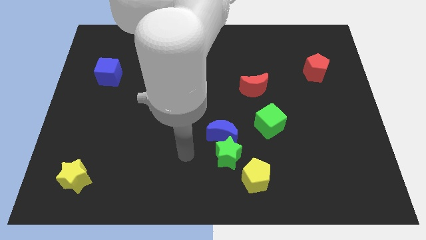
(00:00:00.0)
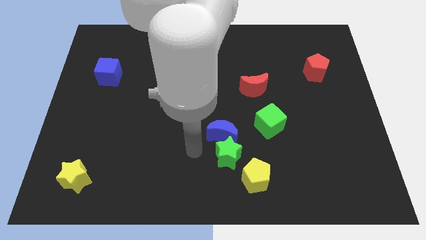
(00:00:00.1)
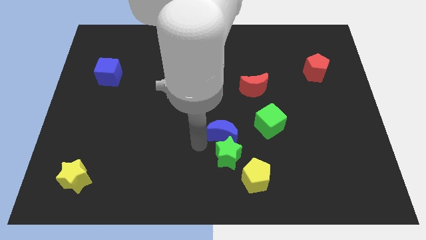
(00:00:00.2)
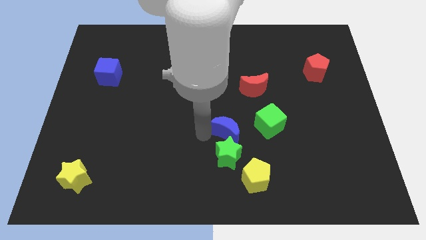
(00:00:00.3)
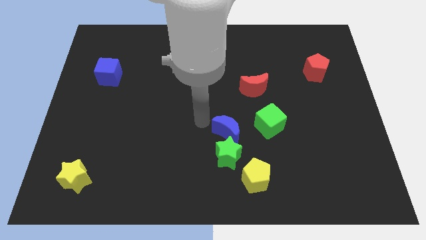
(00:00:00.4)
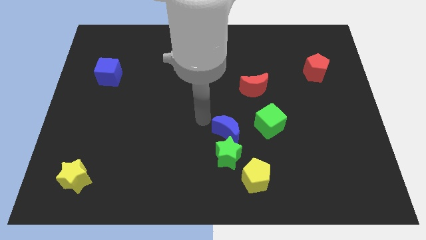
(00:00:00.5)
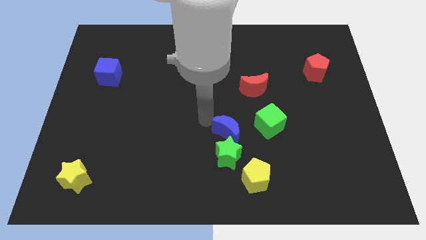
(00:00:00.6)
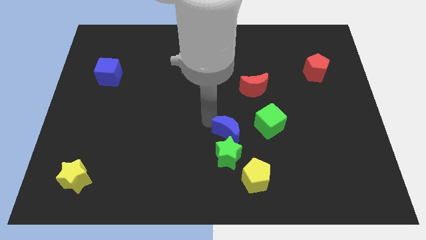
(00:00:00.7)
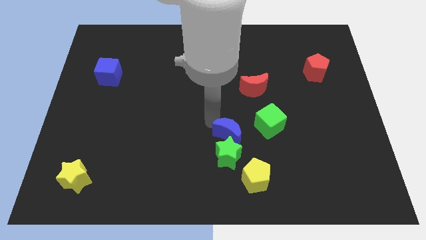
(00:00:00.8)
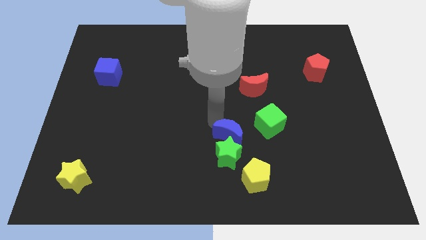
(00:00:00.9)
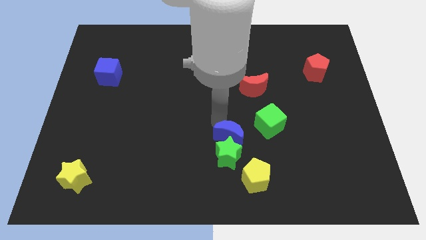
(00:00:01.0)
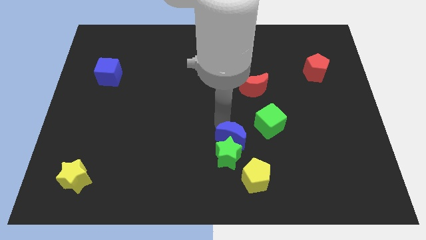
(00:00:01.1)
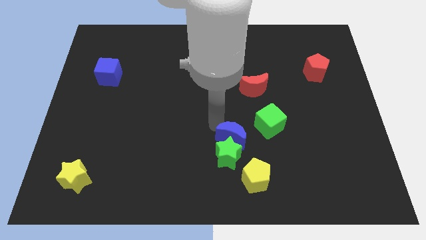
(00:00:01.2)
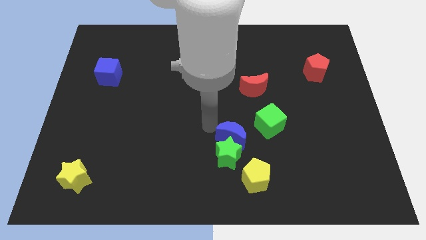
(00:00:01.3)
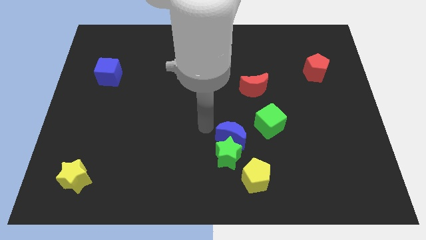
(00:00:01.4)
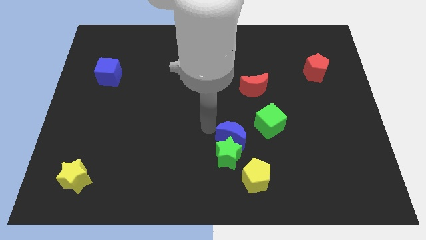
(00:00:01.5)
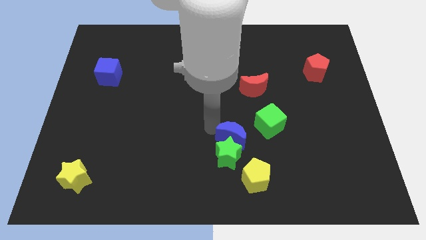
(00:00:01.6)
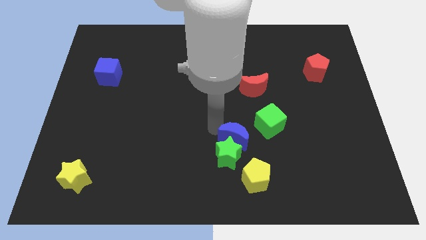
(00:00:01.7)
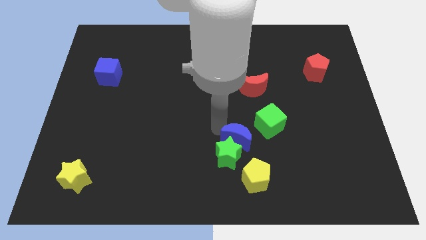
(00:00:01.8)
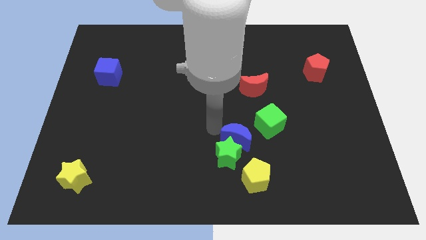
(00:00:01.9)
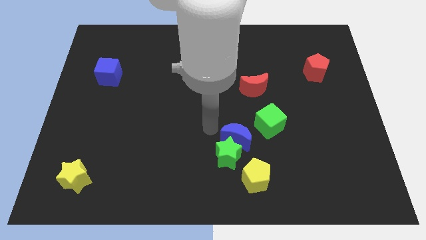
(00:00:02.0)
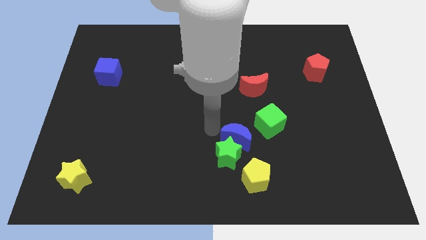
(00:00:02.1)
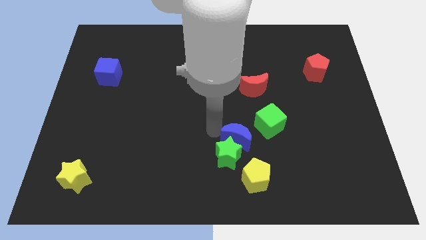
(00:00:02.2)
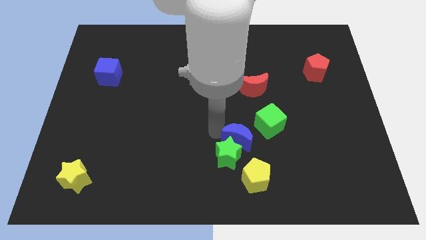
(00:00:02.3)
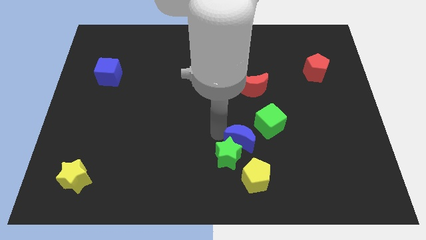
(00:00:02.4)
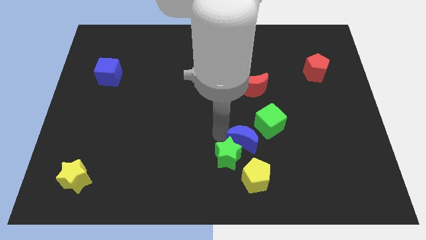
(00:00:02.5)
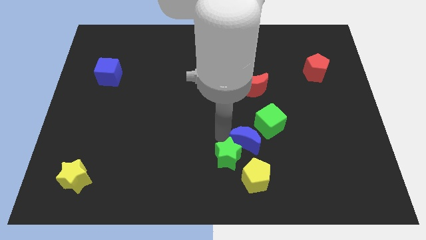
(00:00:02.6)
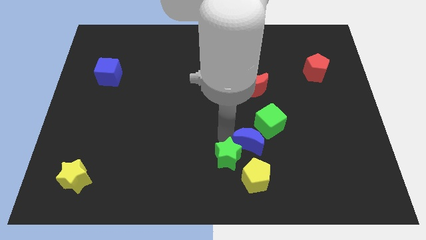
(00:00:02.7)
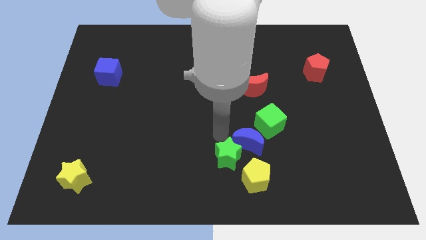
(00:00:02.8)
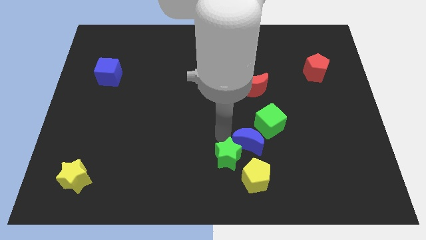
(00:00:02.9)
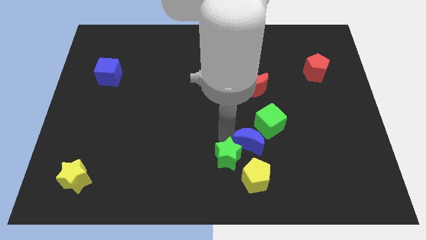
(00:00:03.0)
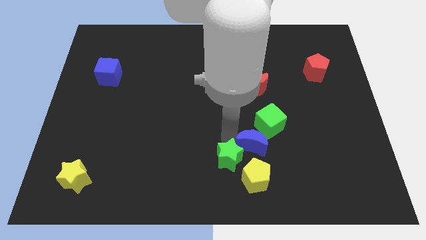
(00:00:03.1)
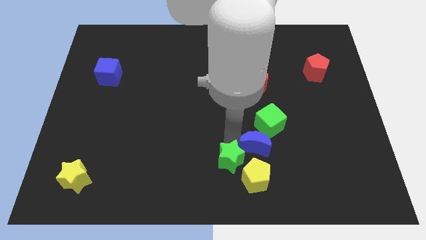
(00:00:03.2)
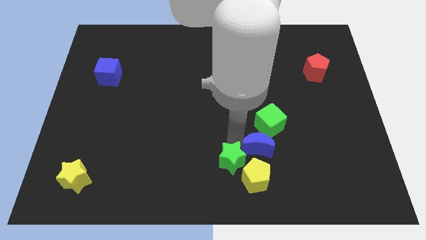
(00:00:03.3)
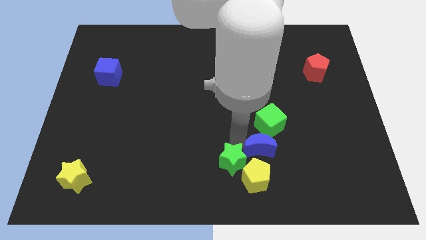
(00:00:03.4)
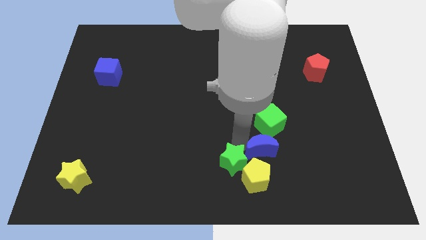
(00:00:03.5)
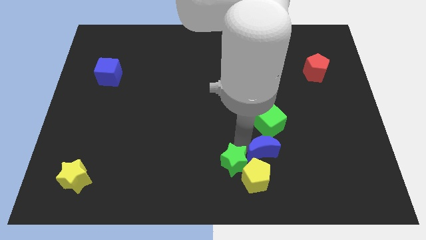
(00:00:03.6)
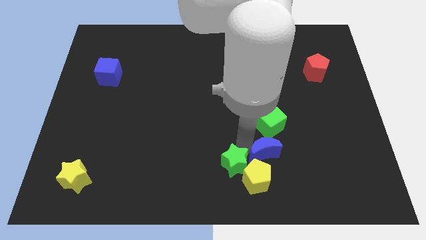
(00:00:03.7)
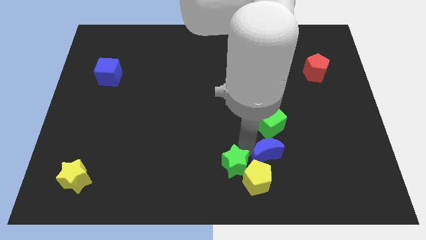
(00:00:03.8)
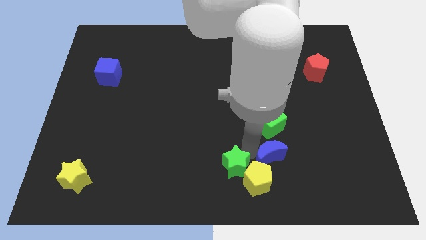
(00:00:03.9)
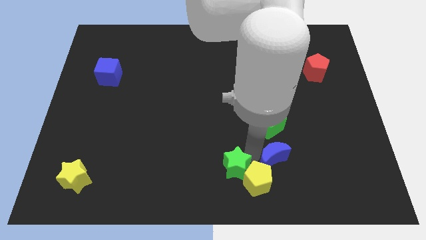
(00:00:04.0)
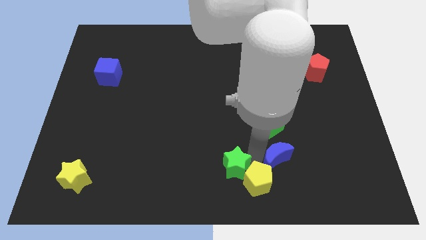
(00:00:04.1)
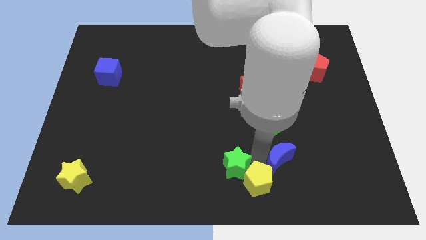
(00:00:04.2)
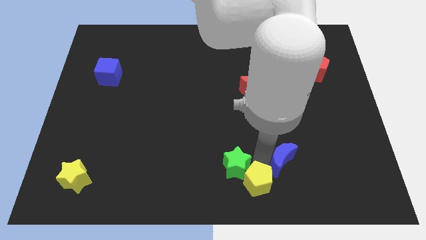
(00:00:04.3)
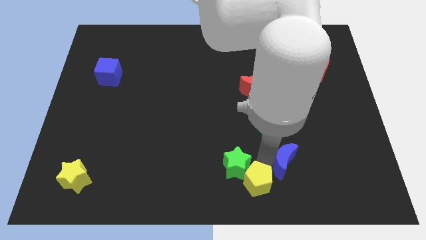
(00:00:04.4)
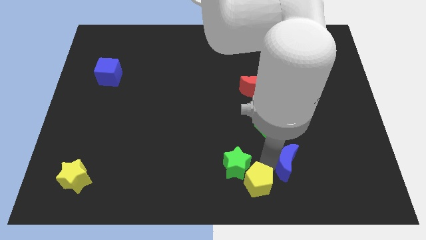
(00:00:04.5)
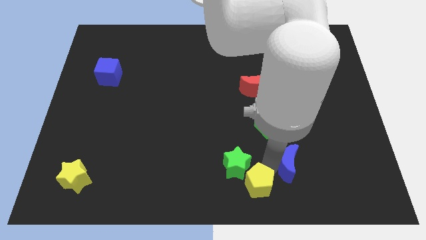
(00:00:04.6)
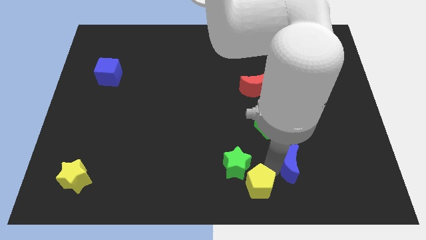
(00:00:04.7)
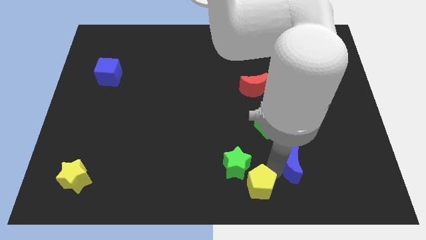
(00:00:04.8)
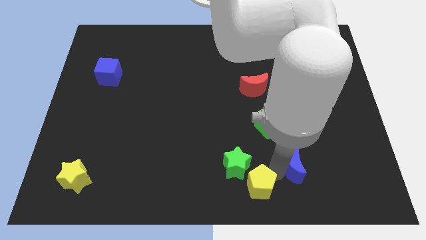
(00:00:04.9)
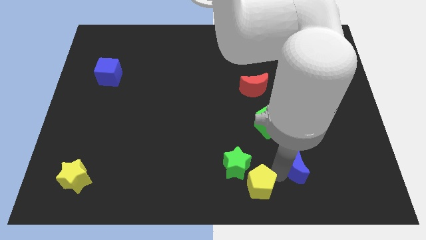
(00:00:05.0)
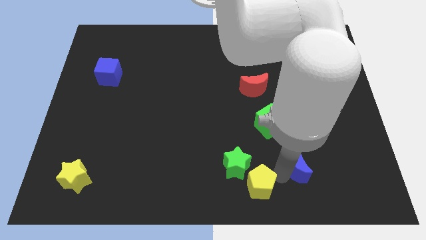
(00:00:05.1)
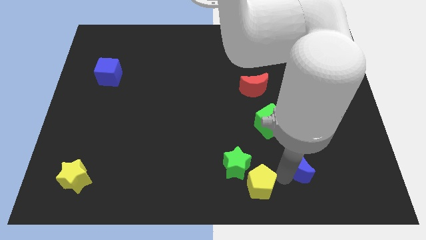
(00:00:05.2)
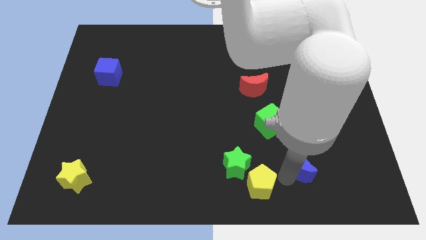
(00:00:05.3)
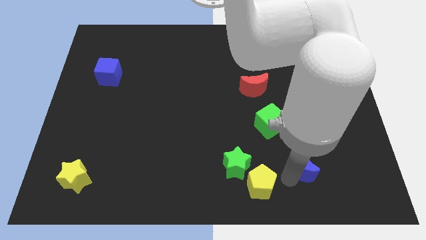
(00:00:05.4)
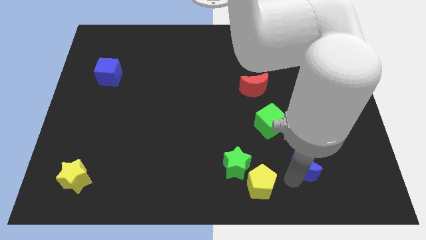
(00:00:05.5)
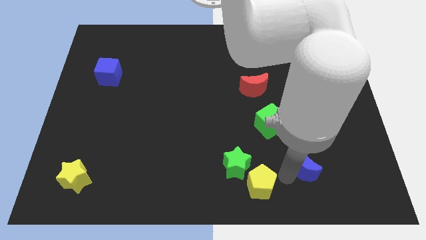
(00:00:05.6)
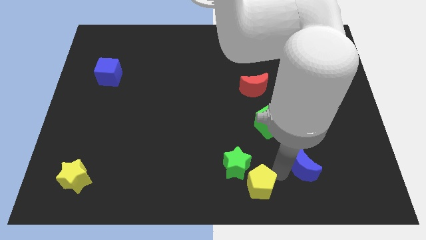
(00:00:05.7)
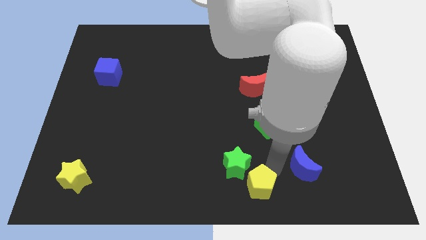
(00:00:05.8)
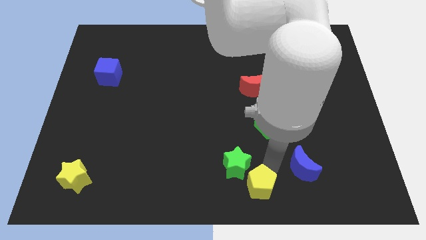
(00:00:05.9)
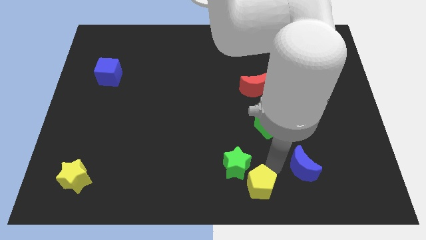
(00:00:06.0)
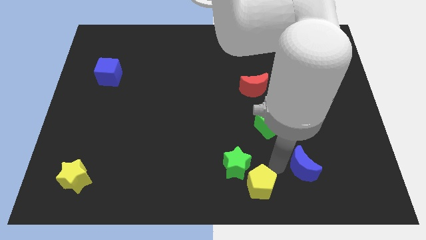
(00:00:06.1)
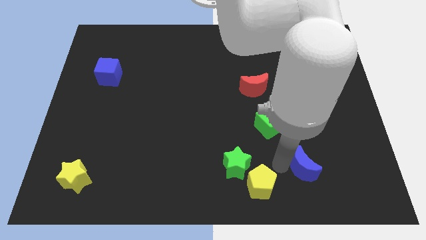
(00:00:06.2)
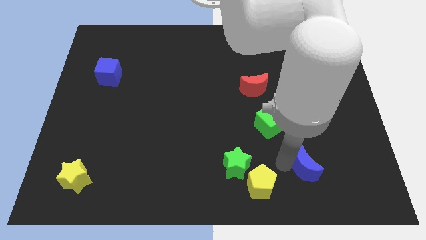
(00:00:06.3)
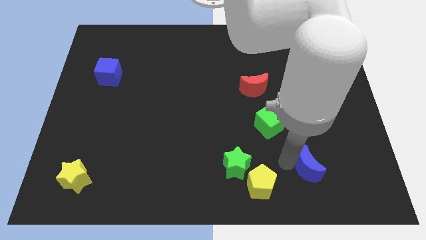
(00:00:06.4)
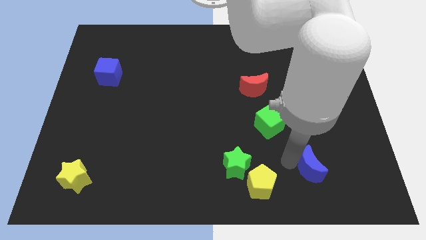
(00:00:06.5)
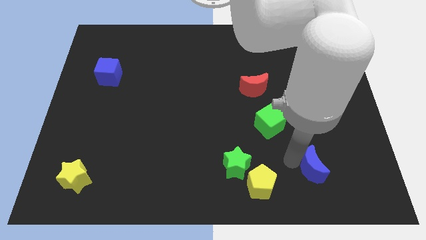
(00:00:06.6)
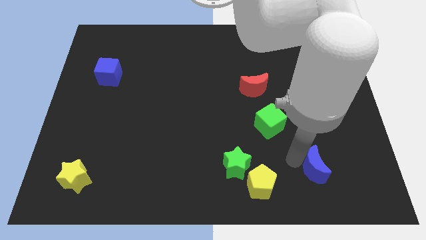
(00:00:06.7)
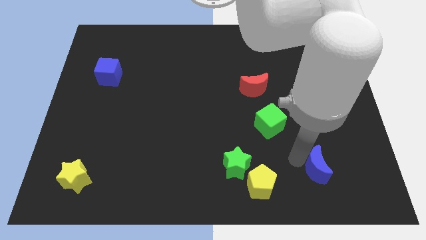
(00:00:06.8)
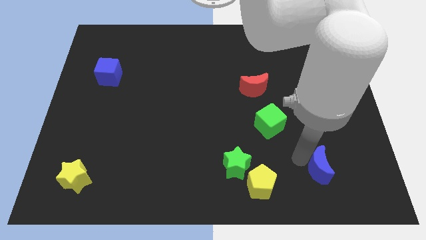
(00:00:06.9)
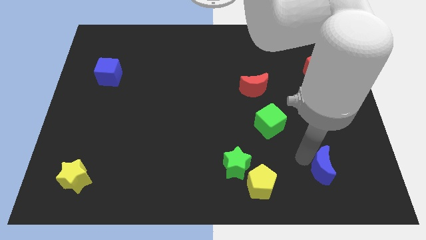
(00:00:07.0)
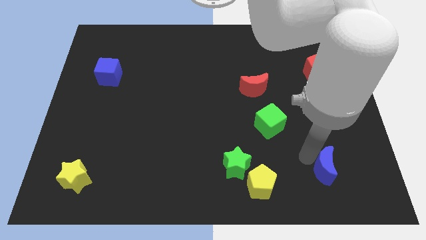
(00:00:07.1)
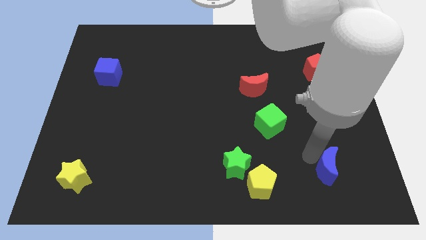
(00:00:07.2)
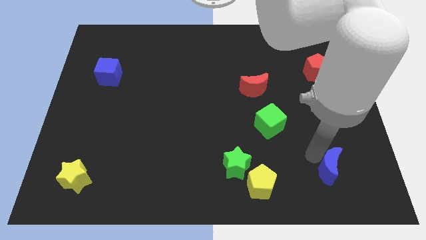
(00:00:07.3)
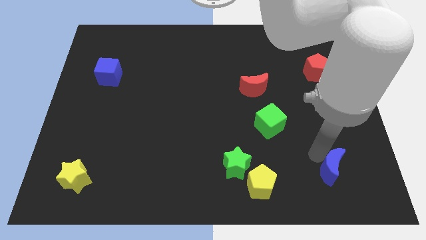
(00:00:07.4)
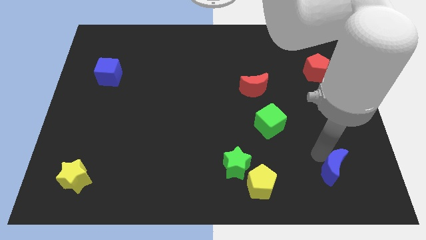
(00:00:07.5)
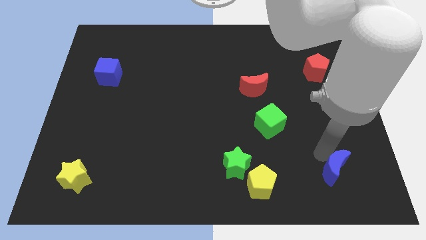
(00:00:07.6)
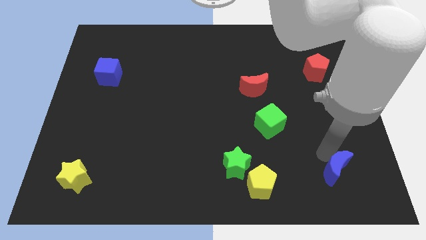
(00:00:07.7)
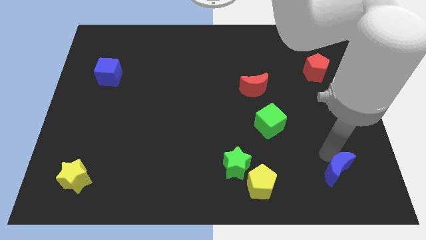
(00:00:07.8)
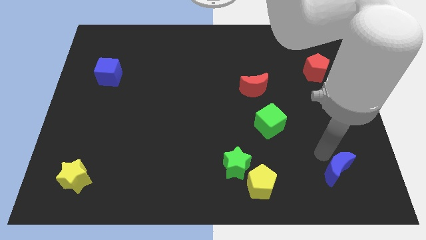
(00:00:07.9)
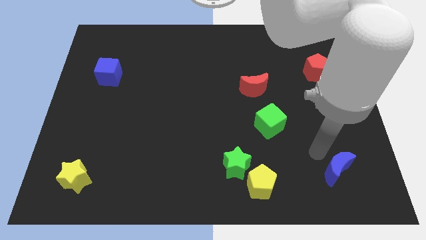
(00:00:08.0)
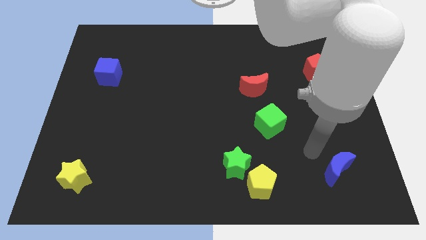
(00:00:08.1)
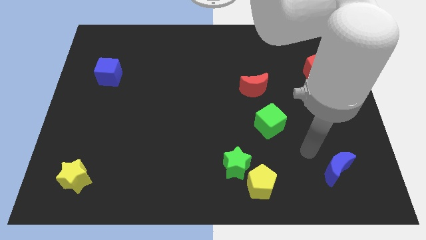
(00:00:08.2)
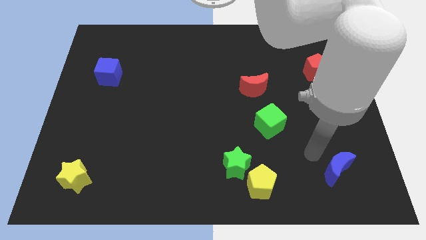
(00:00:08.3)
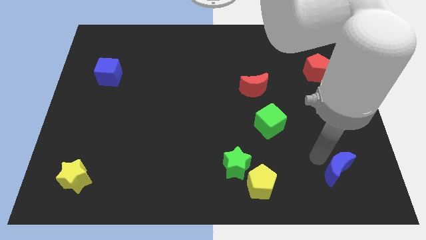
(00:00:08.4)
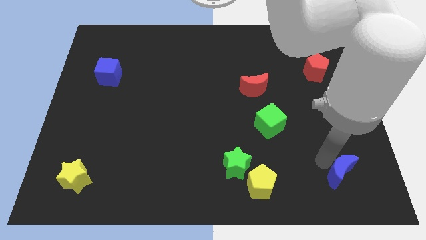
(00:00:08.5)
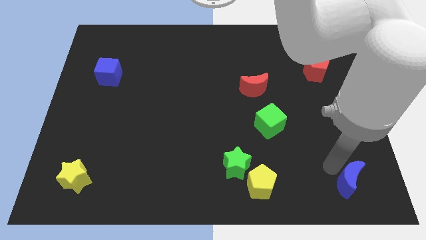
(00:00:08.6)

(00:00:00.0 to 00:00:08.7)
slide the blue moon to the bottom right of the board
